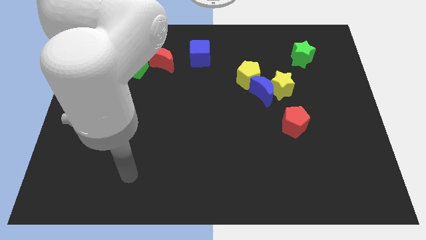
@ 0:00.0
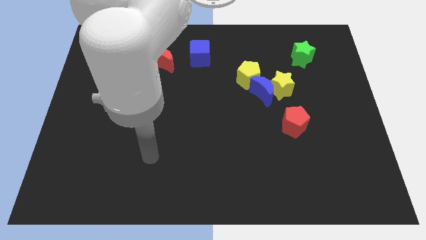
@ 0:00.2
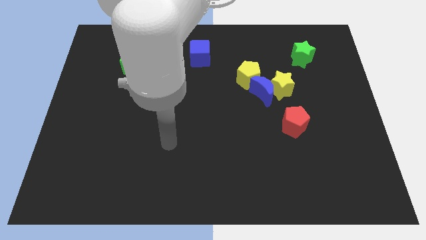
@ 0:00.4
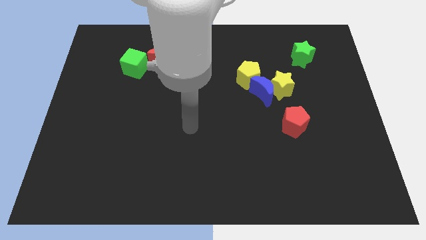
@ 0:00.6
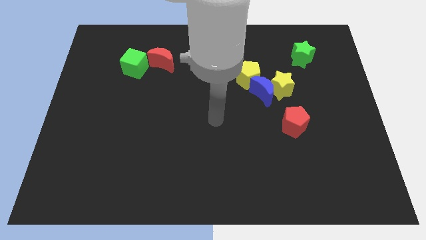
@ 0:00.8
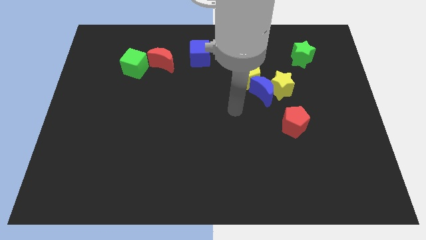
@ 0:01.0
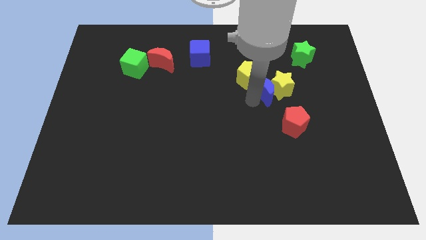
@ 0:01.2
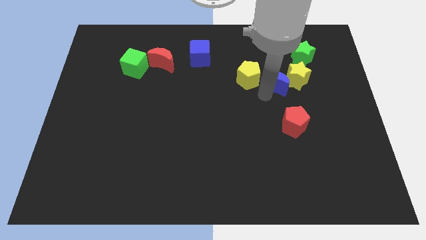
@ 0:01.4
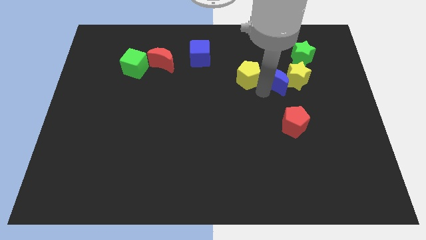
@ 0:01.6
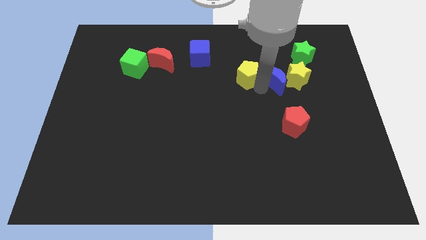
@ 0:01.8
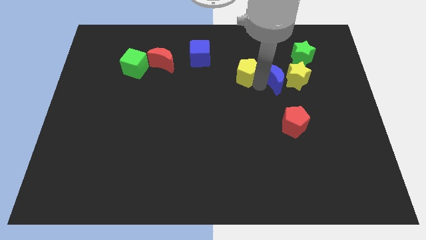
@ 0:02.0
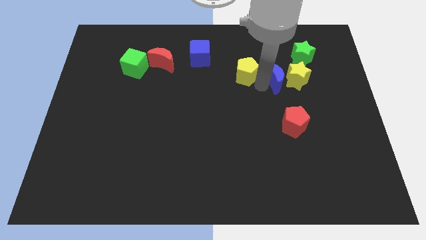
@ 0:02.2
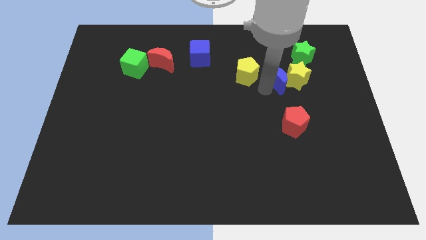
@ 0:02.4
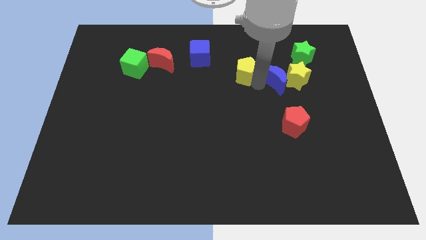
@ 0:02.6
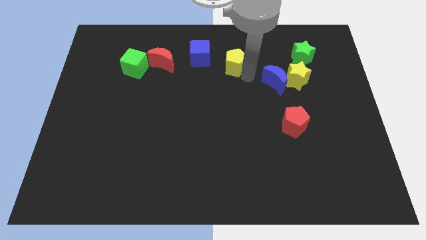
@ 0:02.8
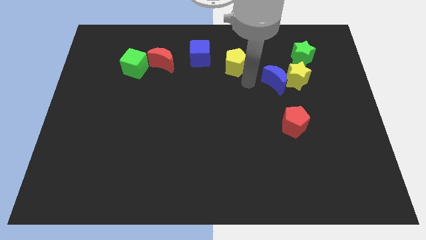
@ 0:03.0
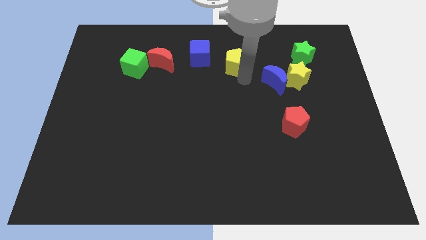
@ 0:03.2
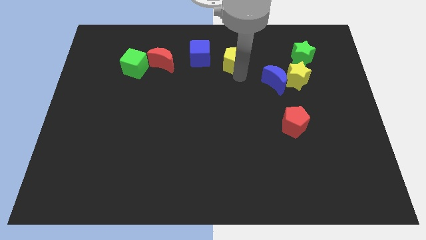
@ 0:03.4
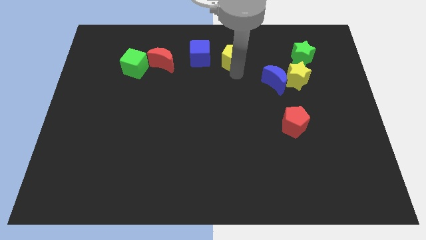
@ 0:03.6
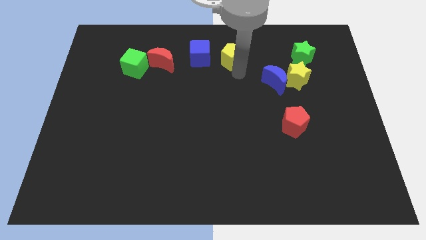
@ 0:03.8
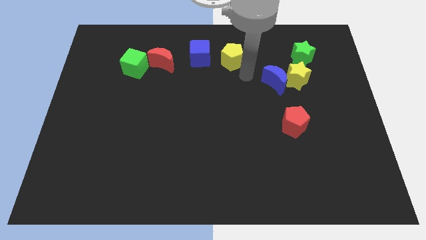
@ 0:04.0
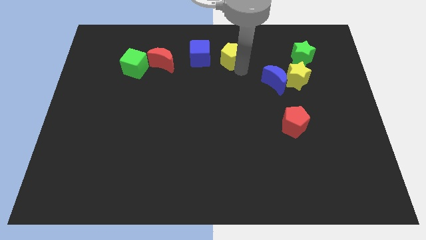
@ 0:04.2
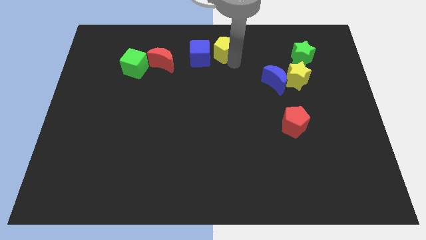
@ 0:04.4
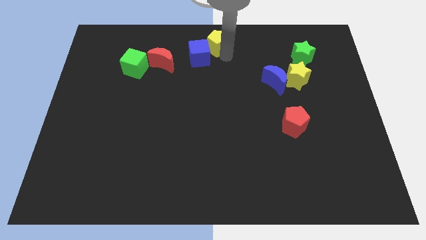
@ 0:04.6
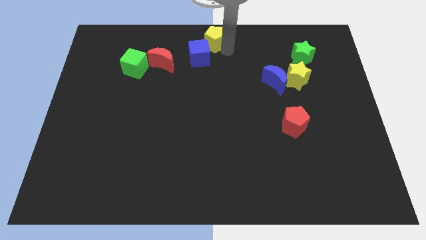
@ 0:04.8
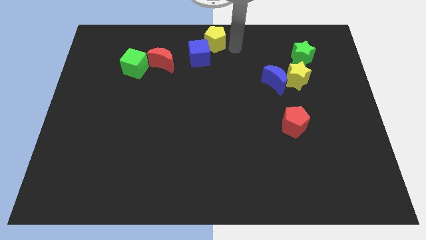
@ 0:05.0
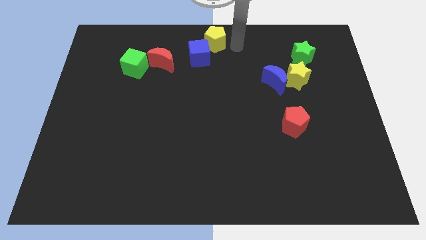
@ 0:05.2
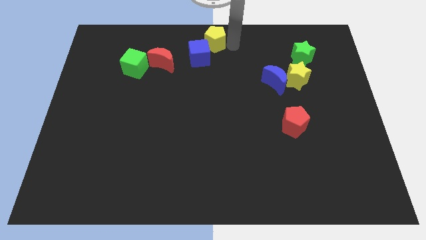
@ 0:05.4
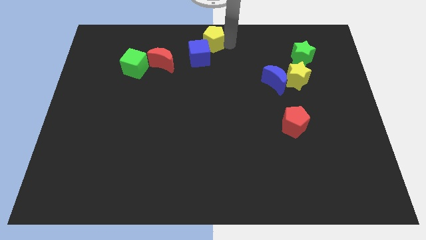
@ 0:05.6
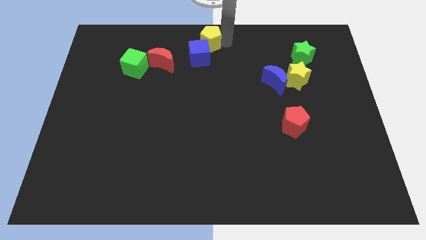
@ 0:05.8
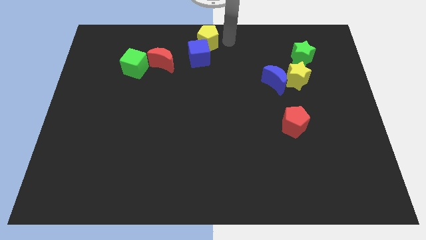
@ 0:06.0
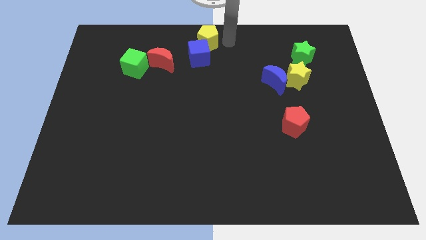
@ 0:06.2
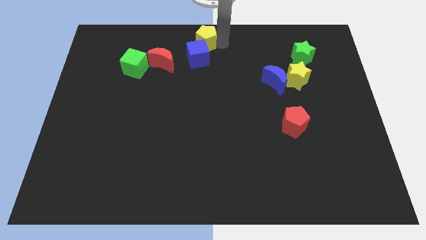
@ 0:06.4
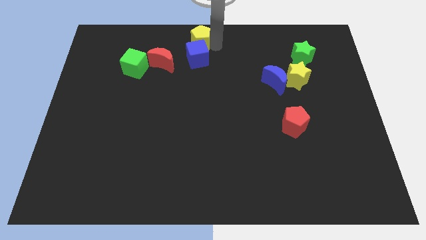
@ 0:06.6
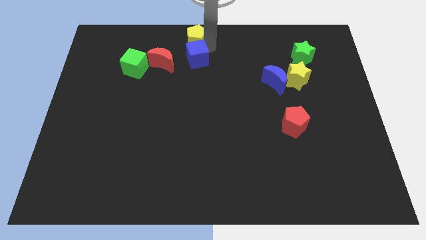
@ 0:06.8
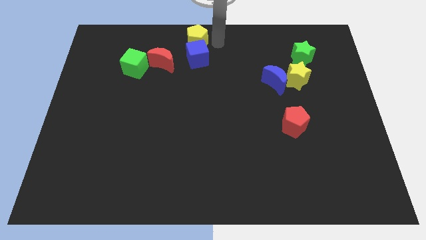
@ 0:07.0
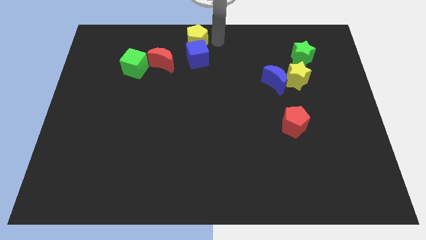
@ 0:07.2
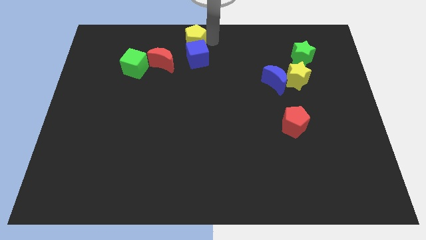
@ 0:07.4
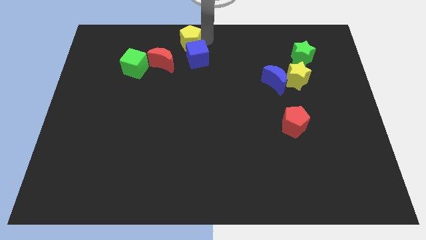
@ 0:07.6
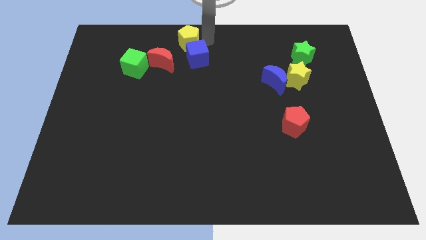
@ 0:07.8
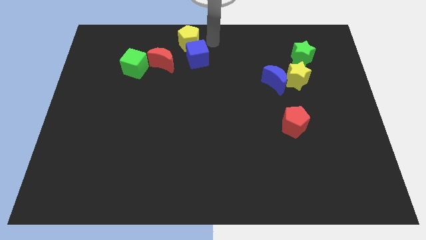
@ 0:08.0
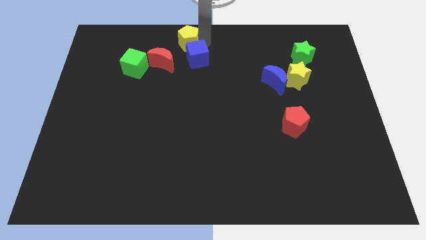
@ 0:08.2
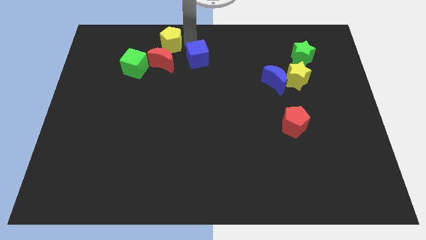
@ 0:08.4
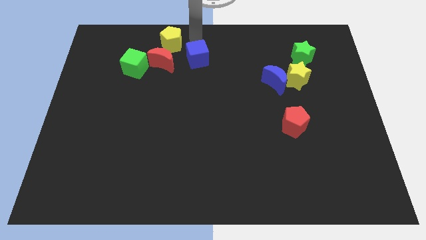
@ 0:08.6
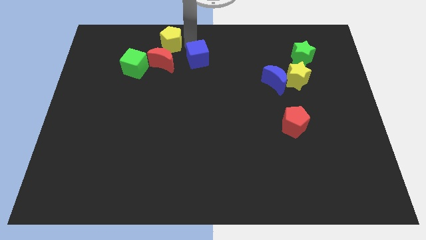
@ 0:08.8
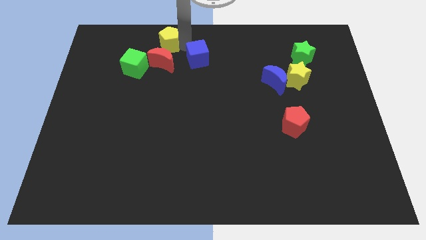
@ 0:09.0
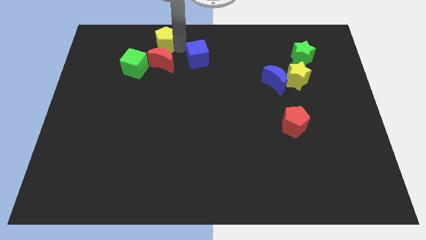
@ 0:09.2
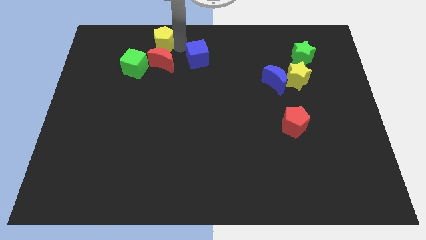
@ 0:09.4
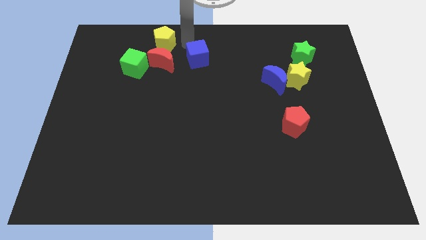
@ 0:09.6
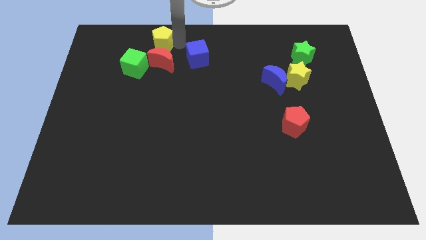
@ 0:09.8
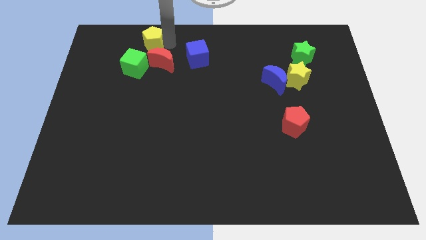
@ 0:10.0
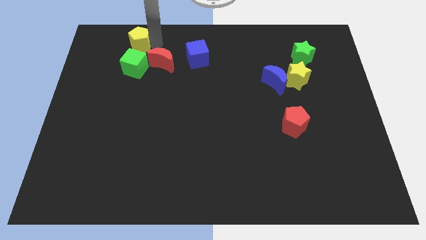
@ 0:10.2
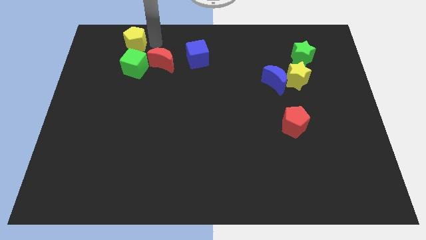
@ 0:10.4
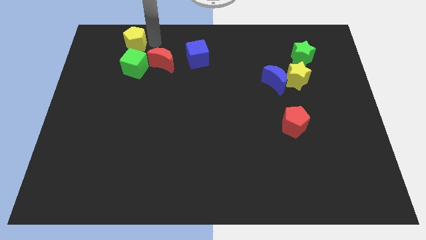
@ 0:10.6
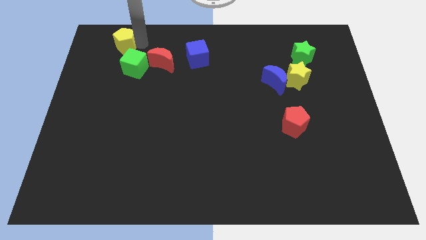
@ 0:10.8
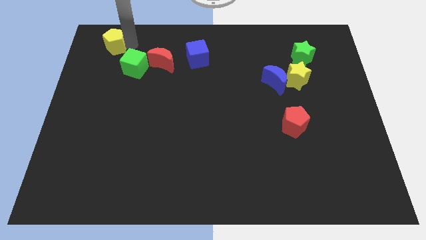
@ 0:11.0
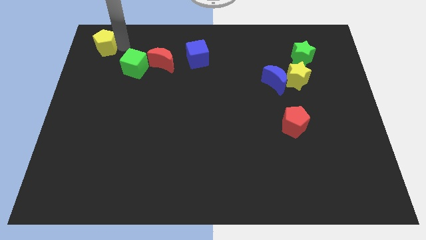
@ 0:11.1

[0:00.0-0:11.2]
put the yellow pentagon to the top left corner

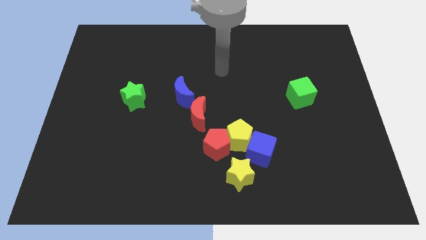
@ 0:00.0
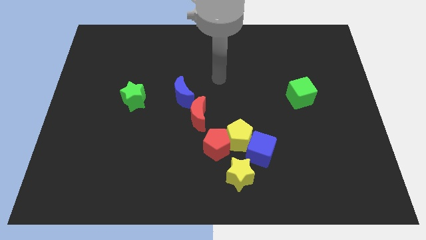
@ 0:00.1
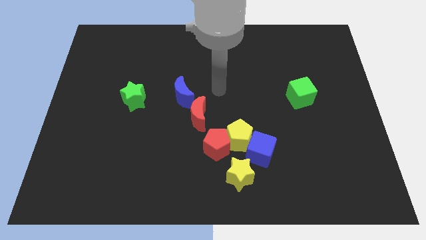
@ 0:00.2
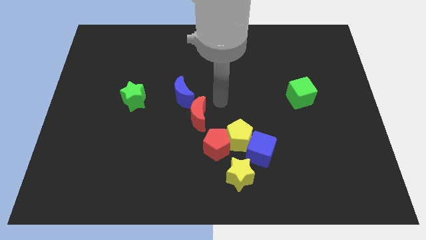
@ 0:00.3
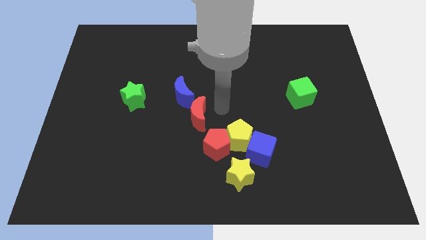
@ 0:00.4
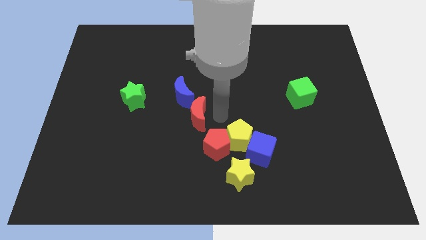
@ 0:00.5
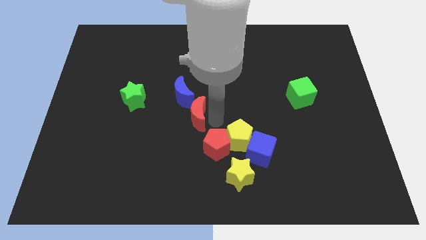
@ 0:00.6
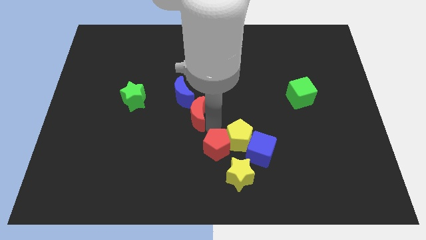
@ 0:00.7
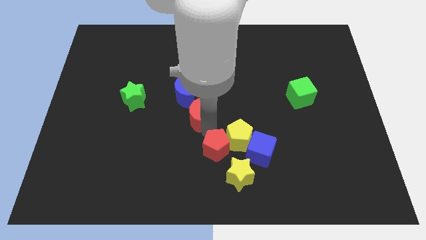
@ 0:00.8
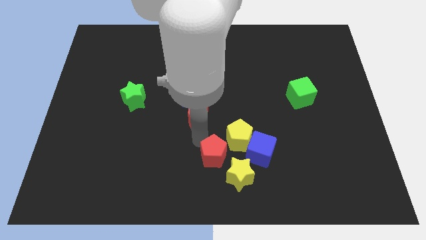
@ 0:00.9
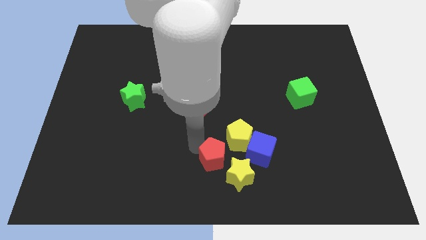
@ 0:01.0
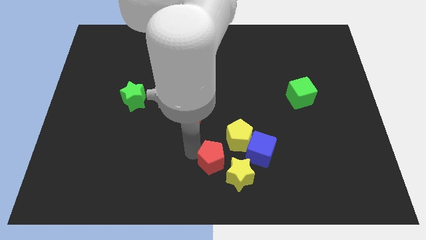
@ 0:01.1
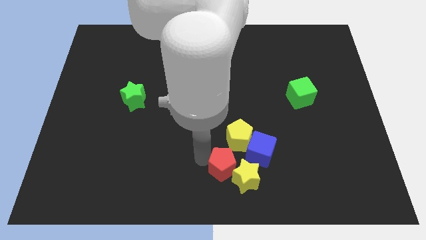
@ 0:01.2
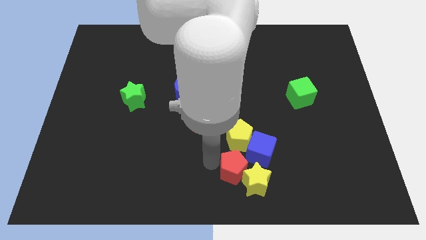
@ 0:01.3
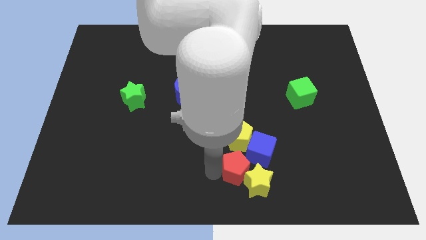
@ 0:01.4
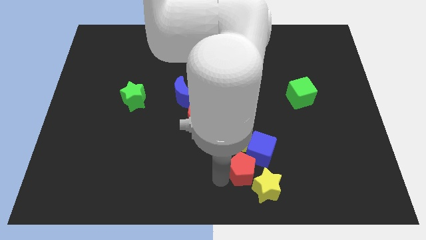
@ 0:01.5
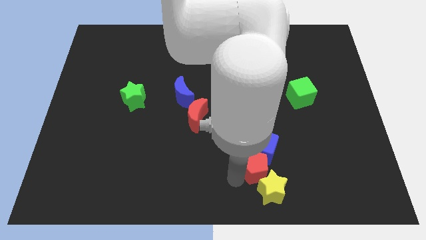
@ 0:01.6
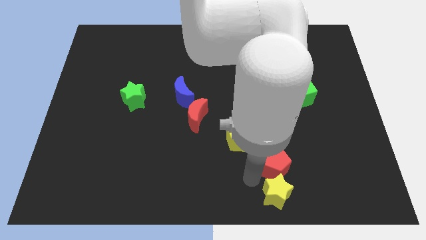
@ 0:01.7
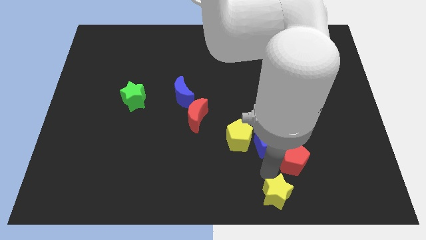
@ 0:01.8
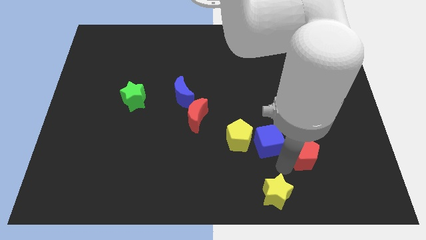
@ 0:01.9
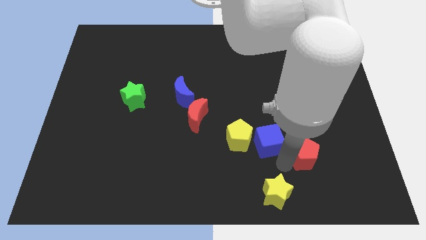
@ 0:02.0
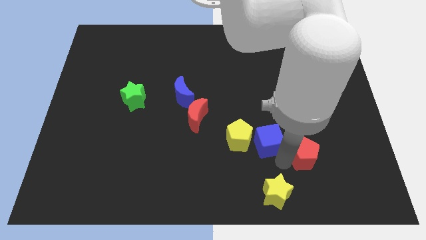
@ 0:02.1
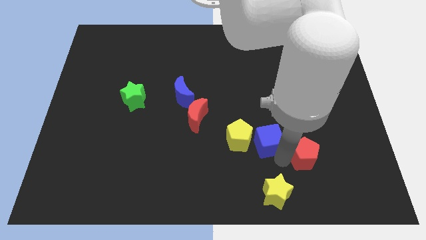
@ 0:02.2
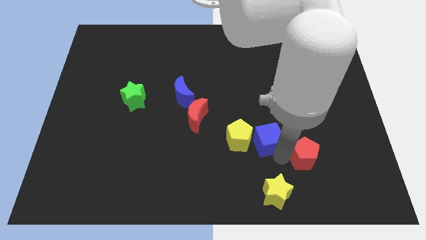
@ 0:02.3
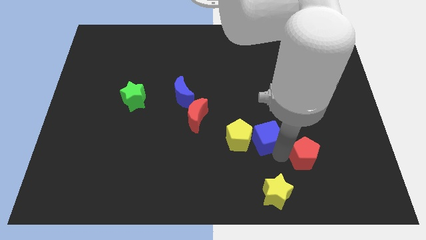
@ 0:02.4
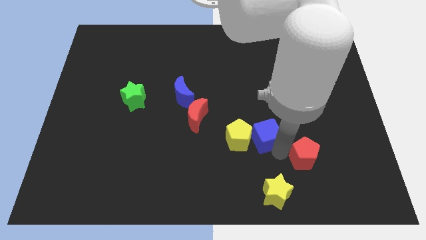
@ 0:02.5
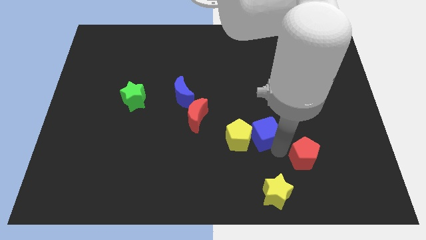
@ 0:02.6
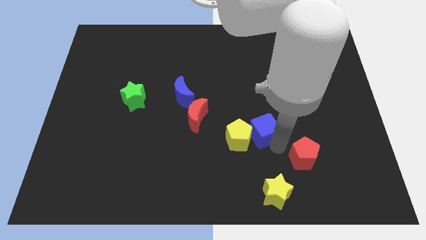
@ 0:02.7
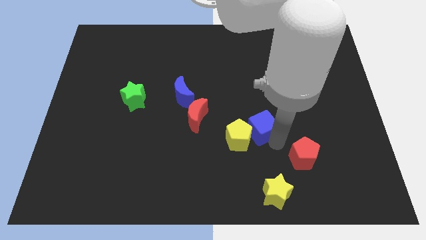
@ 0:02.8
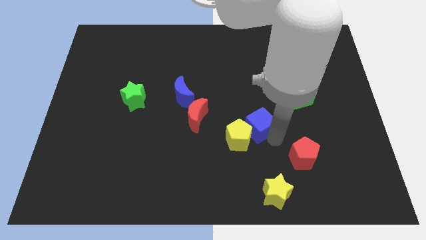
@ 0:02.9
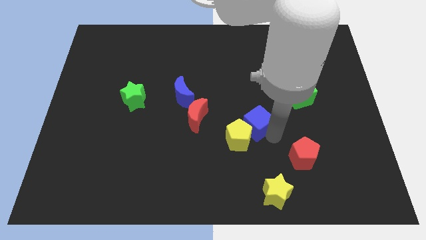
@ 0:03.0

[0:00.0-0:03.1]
move the blue cube to the middle of the board
